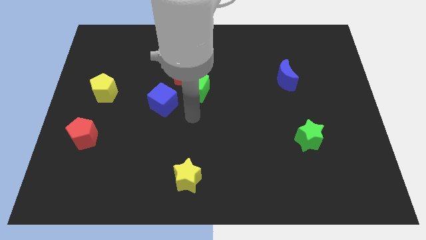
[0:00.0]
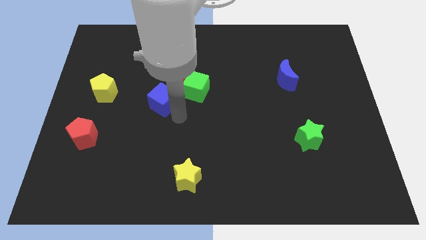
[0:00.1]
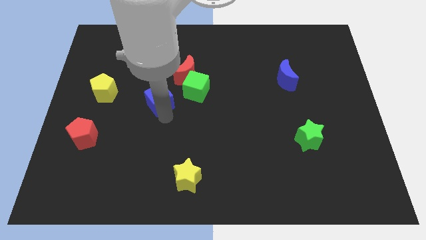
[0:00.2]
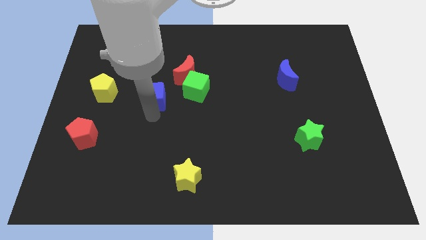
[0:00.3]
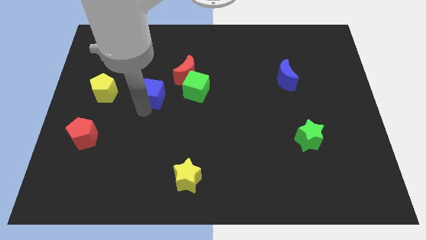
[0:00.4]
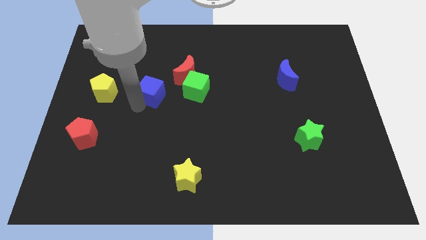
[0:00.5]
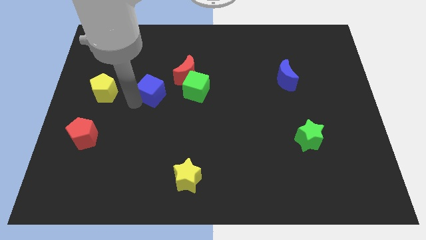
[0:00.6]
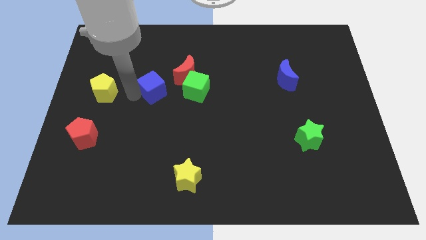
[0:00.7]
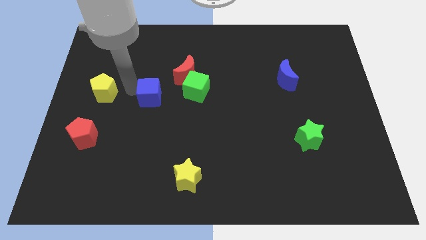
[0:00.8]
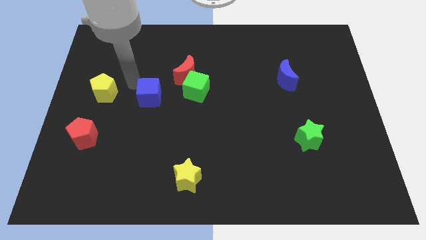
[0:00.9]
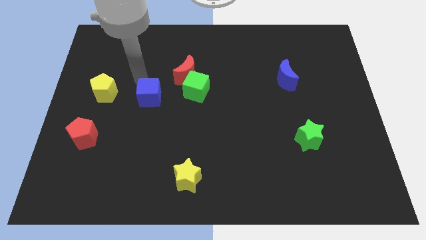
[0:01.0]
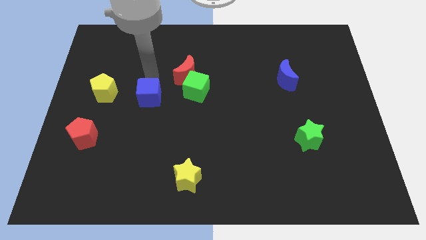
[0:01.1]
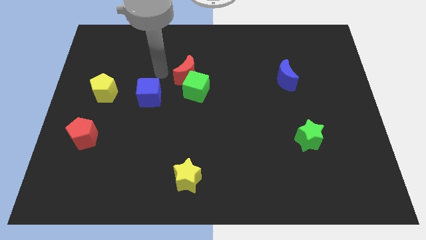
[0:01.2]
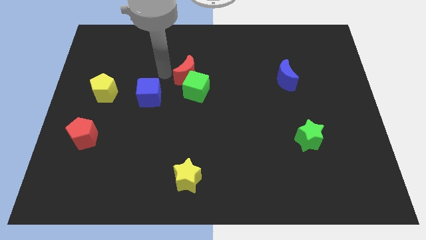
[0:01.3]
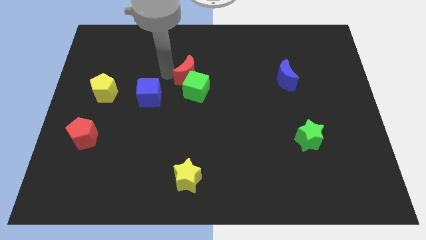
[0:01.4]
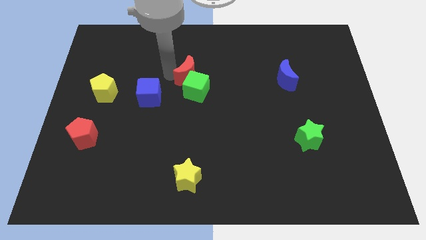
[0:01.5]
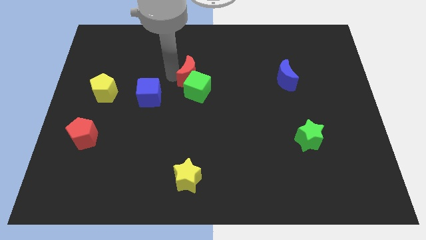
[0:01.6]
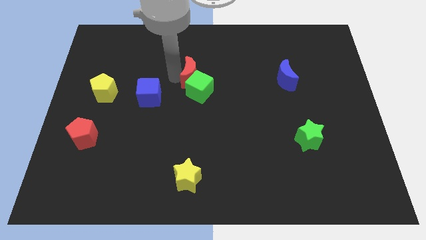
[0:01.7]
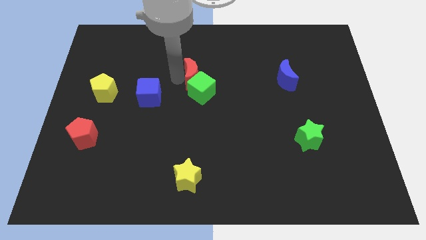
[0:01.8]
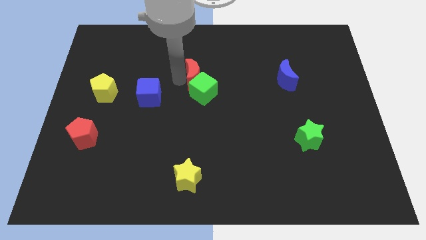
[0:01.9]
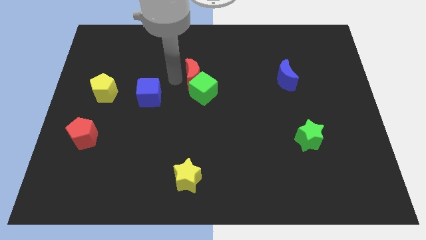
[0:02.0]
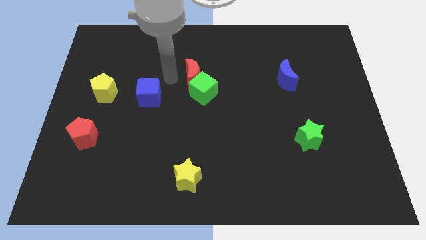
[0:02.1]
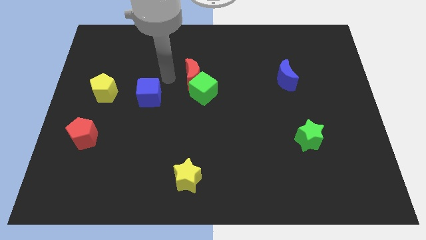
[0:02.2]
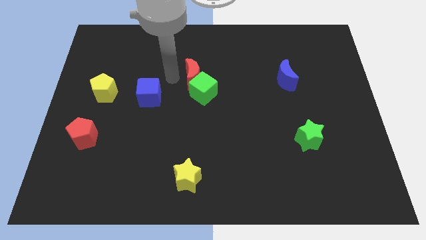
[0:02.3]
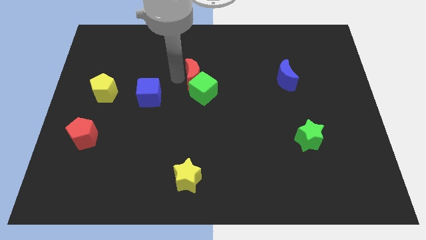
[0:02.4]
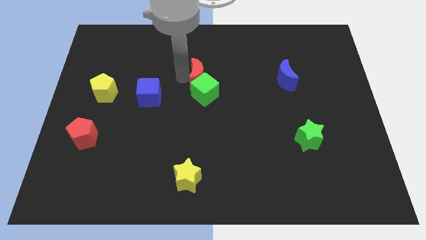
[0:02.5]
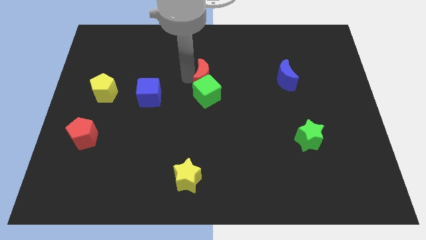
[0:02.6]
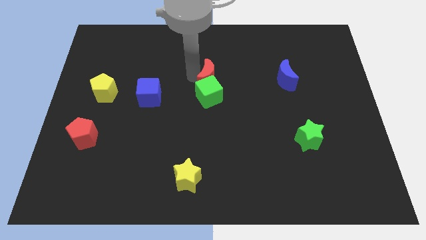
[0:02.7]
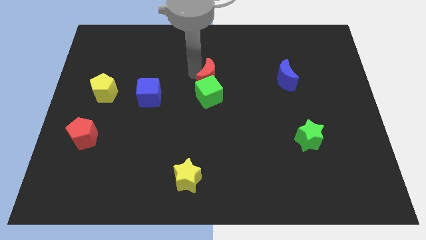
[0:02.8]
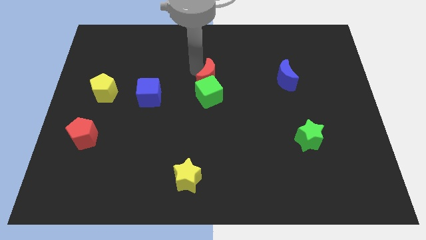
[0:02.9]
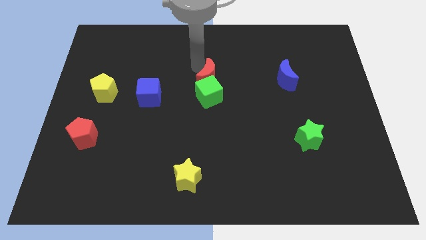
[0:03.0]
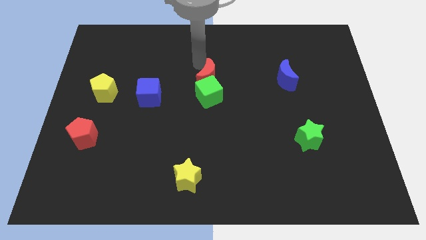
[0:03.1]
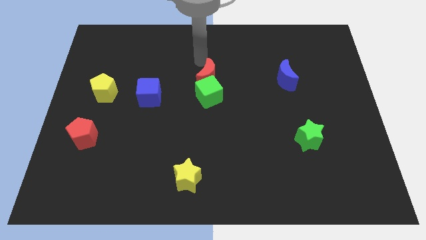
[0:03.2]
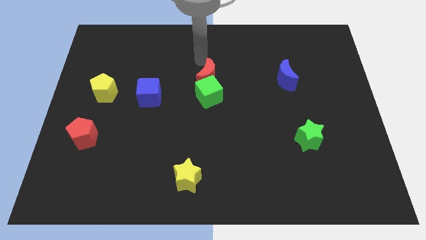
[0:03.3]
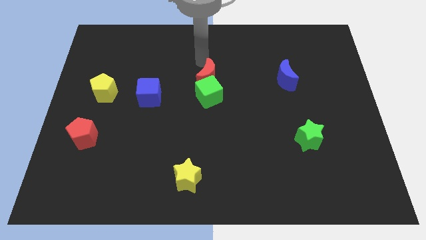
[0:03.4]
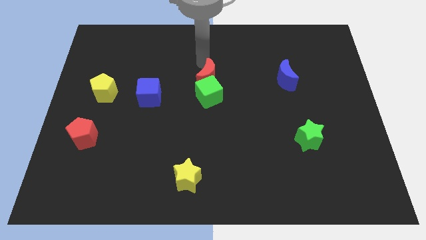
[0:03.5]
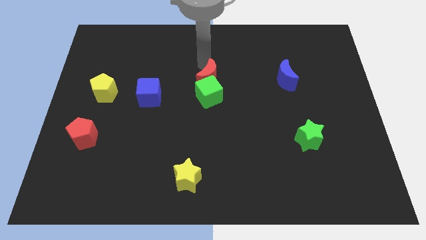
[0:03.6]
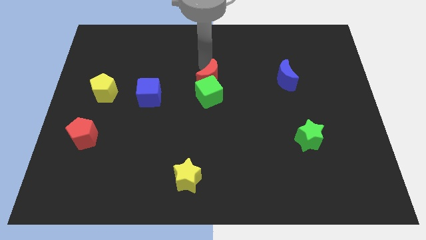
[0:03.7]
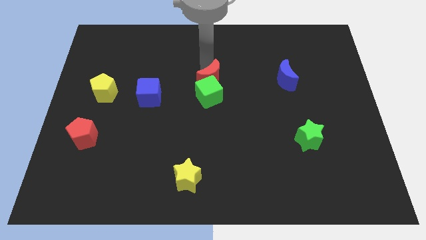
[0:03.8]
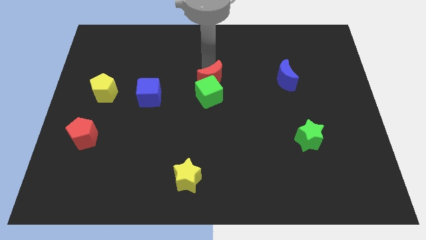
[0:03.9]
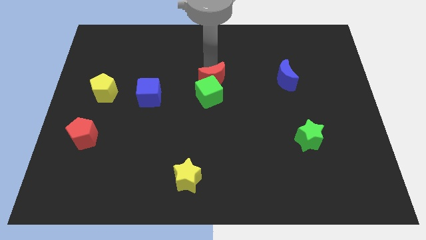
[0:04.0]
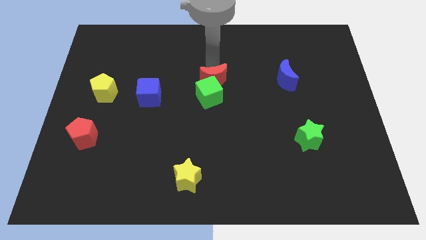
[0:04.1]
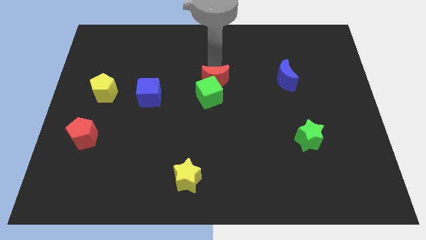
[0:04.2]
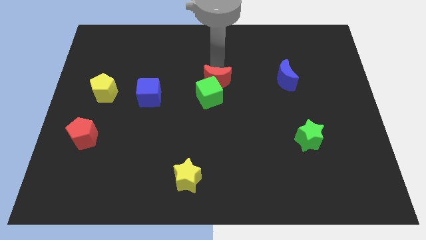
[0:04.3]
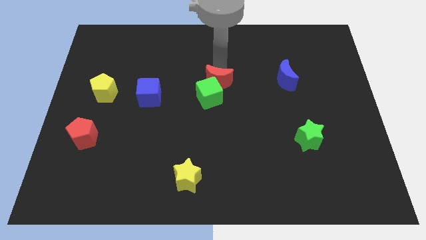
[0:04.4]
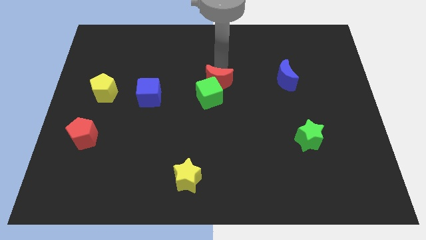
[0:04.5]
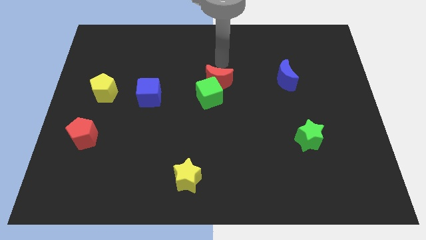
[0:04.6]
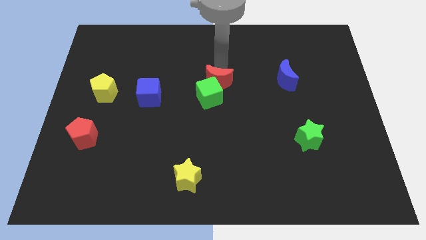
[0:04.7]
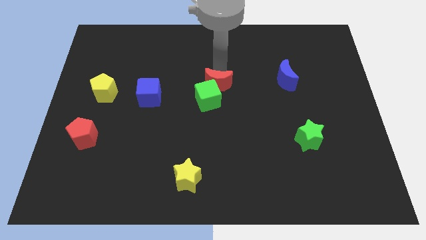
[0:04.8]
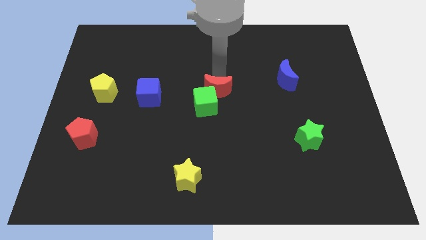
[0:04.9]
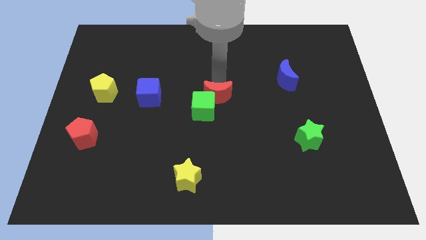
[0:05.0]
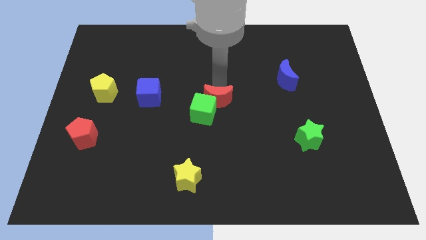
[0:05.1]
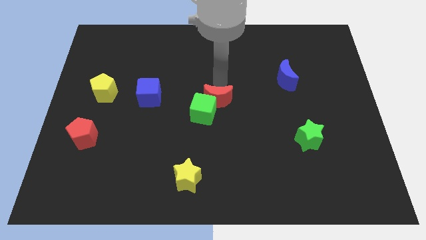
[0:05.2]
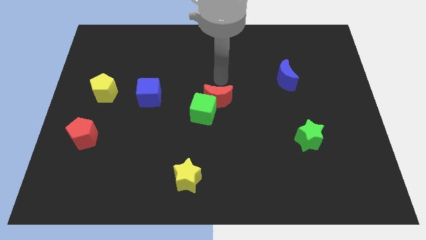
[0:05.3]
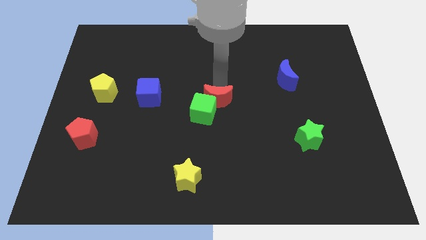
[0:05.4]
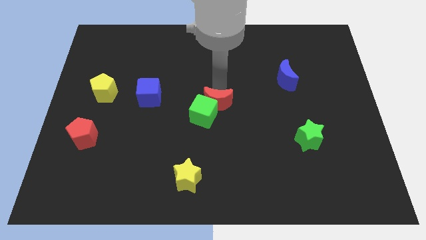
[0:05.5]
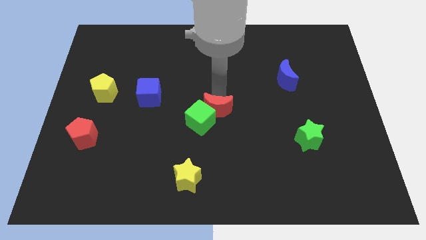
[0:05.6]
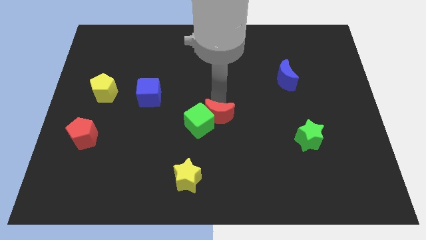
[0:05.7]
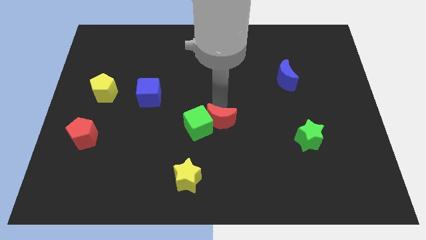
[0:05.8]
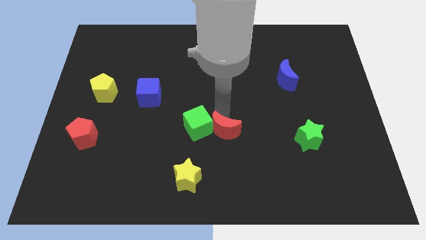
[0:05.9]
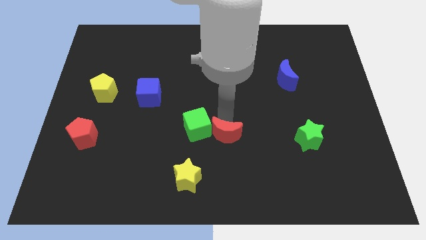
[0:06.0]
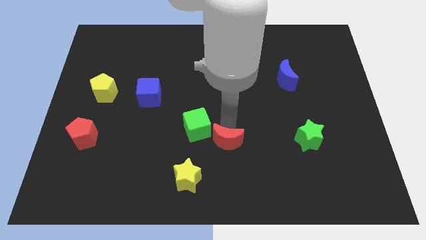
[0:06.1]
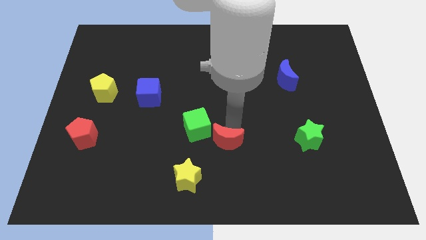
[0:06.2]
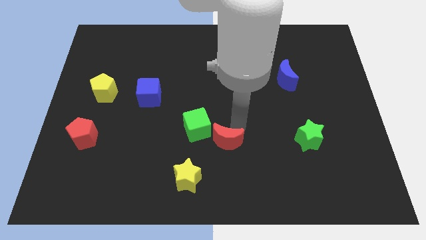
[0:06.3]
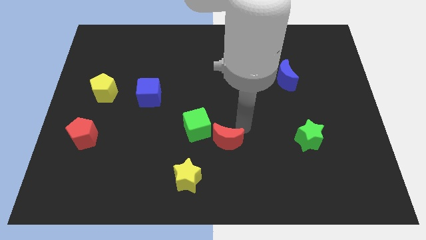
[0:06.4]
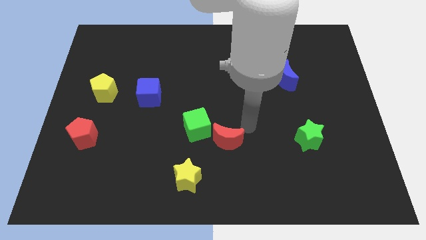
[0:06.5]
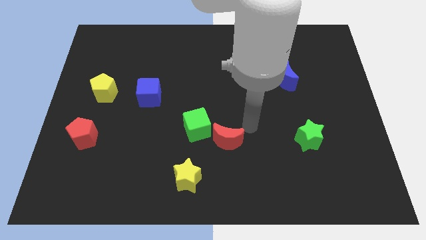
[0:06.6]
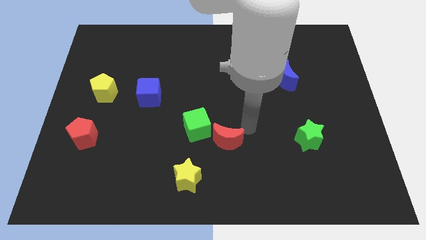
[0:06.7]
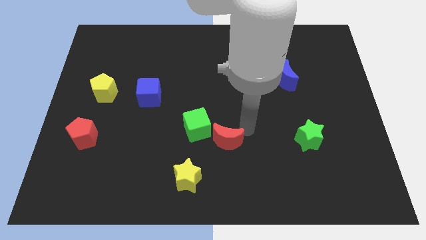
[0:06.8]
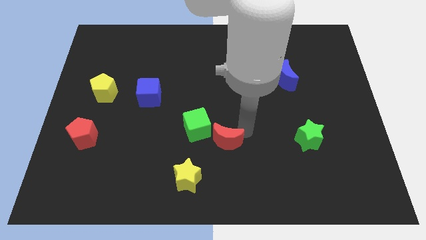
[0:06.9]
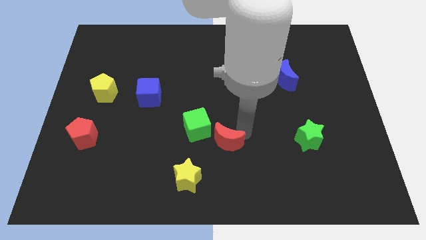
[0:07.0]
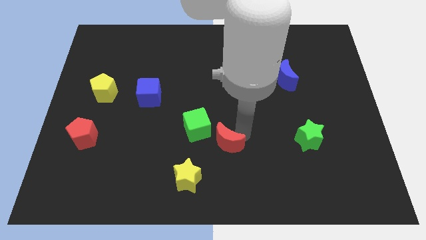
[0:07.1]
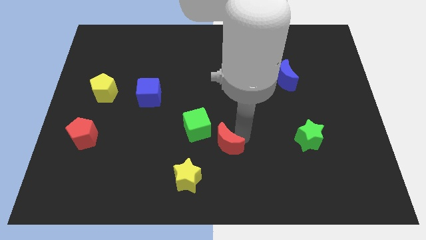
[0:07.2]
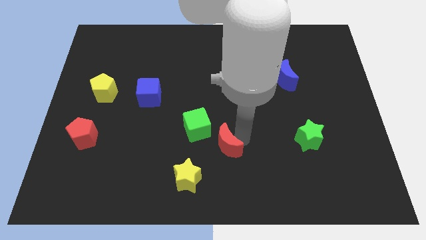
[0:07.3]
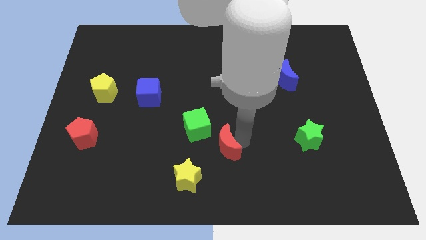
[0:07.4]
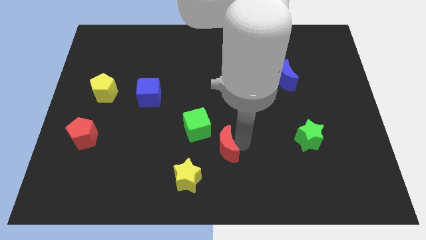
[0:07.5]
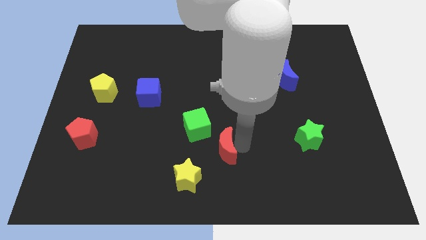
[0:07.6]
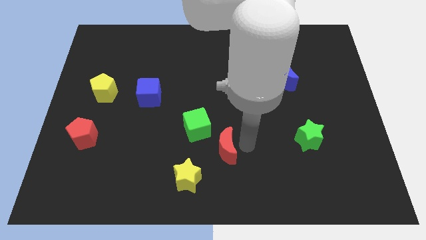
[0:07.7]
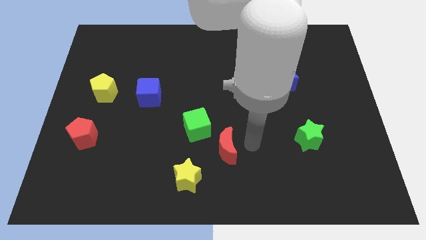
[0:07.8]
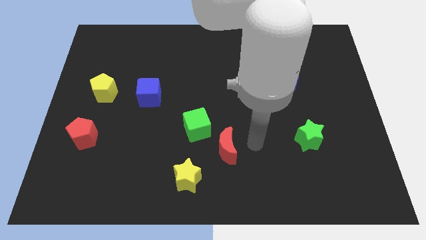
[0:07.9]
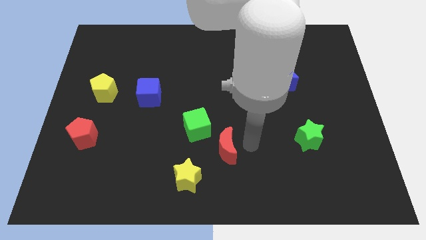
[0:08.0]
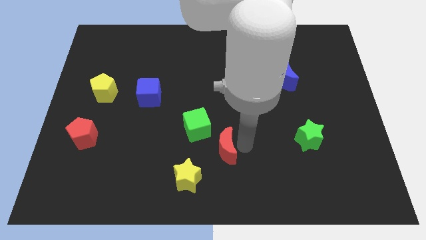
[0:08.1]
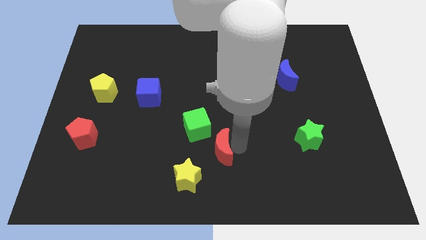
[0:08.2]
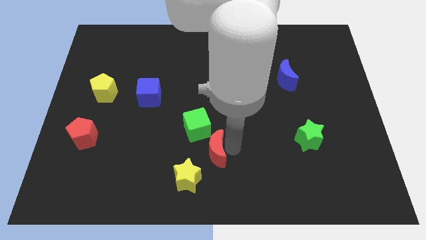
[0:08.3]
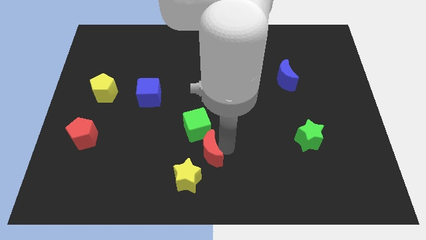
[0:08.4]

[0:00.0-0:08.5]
move the red moon to the bottom side
